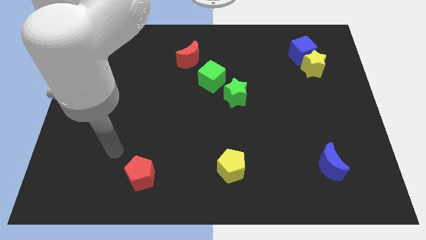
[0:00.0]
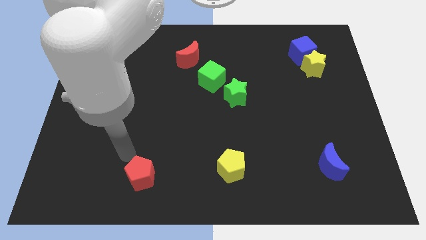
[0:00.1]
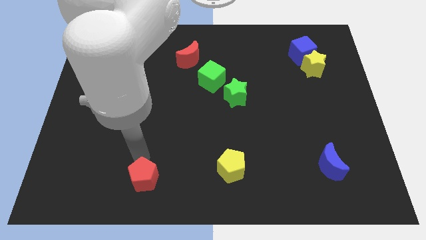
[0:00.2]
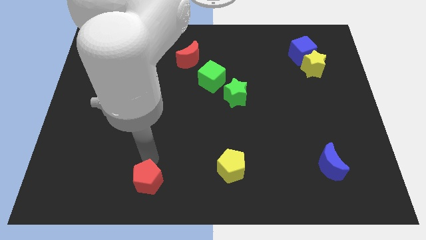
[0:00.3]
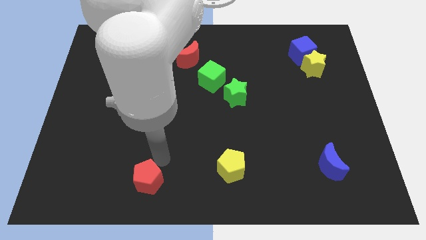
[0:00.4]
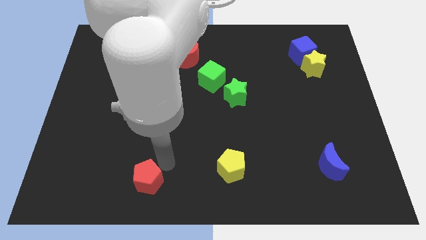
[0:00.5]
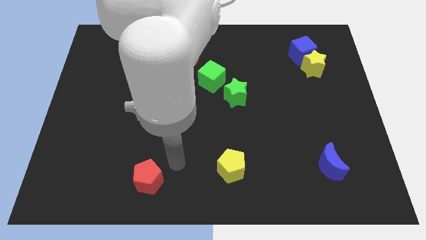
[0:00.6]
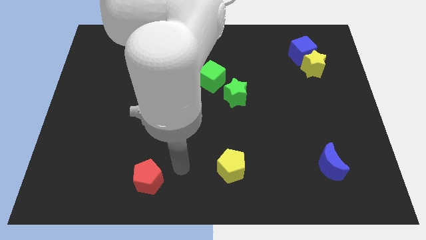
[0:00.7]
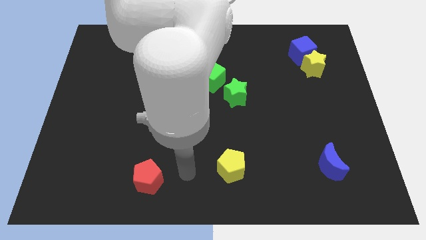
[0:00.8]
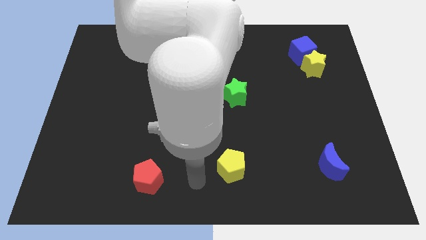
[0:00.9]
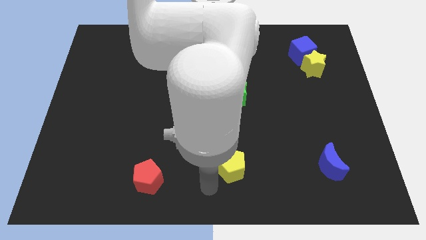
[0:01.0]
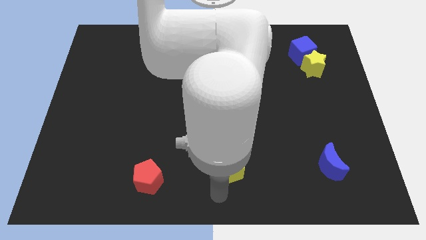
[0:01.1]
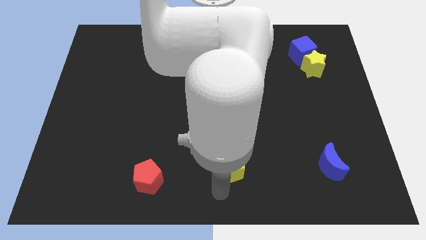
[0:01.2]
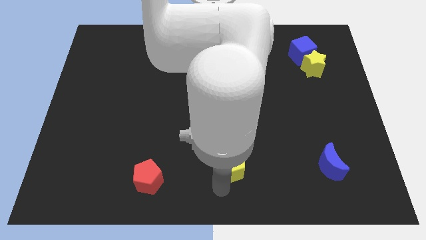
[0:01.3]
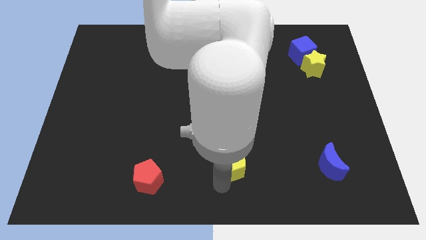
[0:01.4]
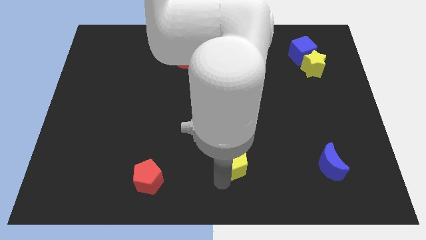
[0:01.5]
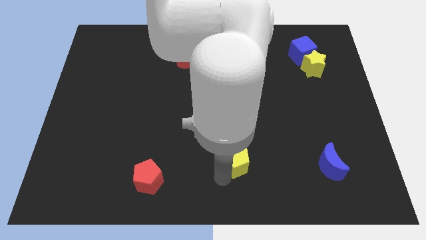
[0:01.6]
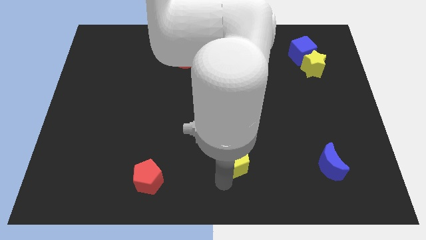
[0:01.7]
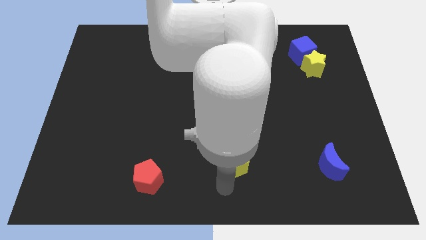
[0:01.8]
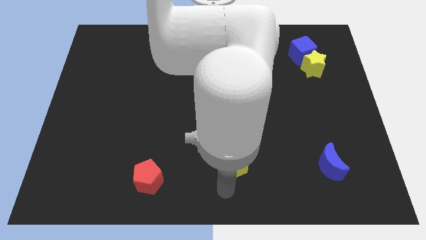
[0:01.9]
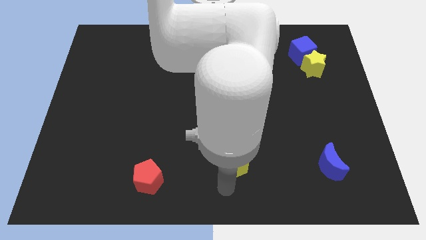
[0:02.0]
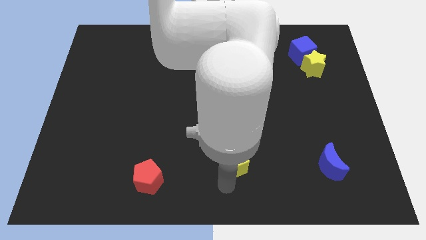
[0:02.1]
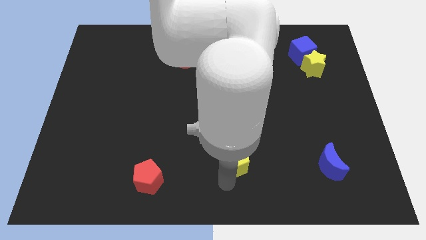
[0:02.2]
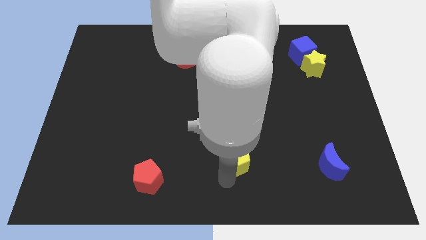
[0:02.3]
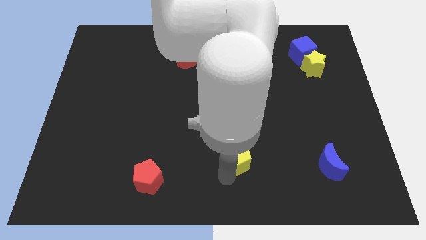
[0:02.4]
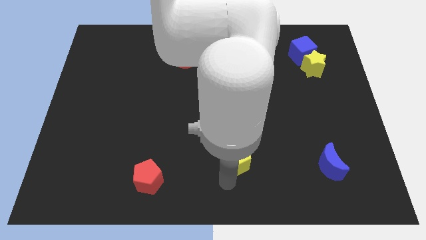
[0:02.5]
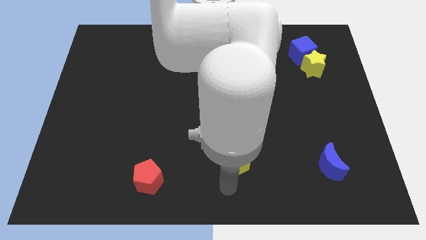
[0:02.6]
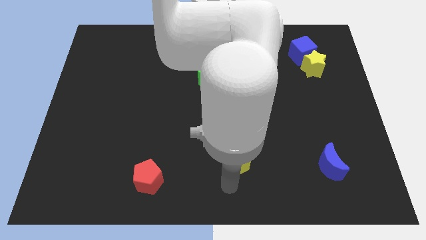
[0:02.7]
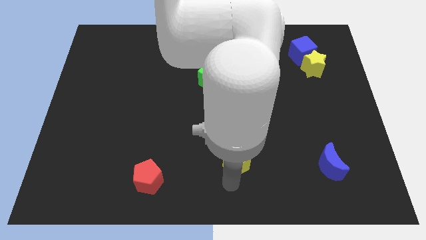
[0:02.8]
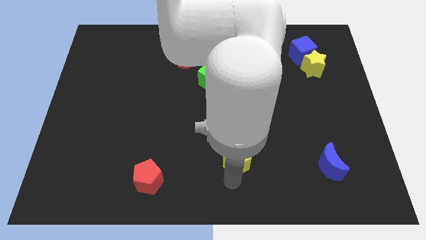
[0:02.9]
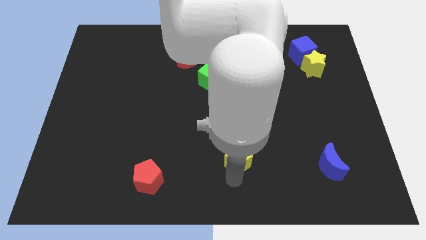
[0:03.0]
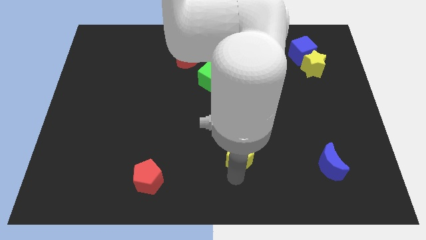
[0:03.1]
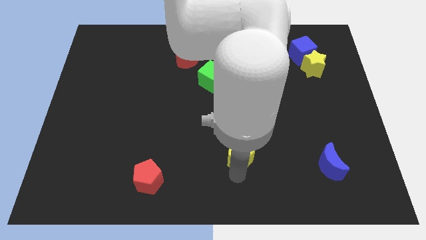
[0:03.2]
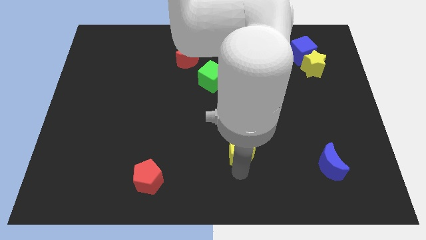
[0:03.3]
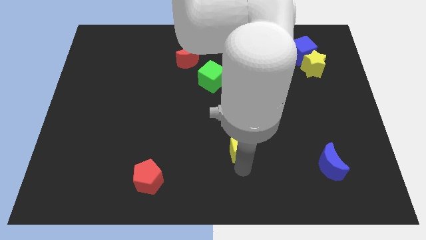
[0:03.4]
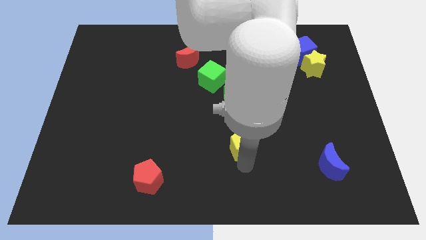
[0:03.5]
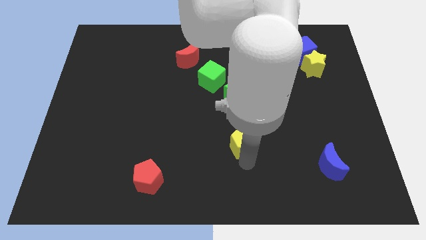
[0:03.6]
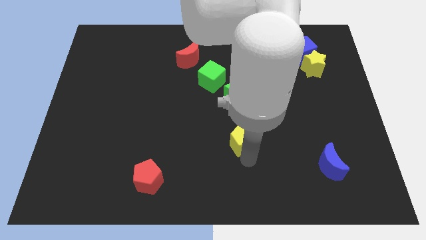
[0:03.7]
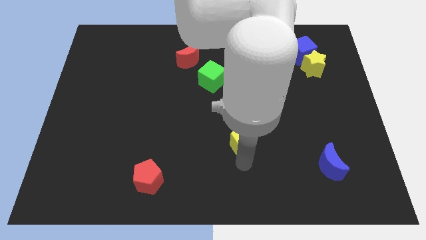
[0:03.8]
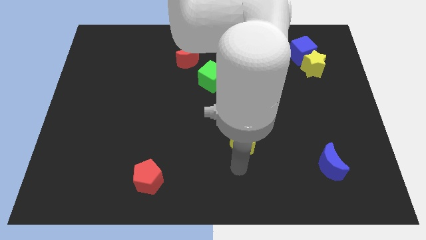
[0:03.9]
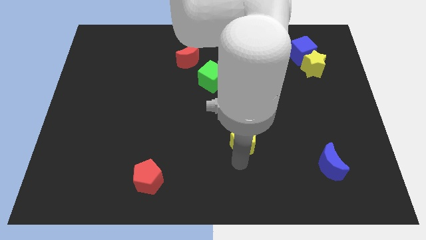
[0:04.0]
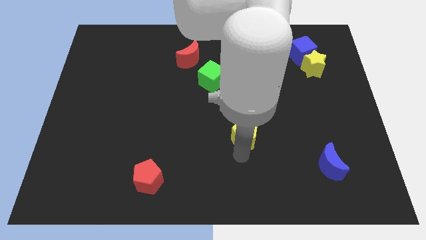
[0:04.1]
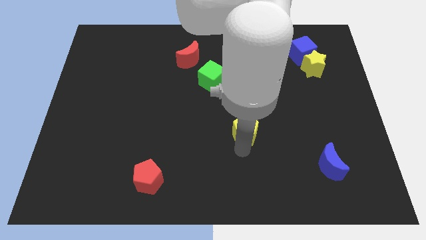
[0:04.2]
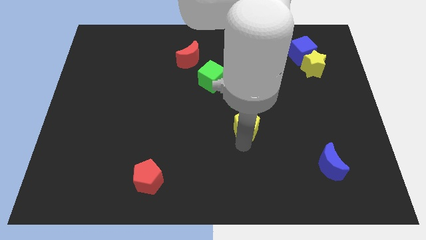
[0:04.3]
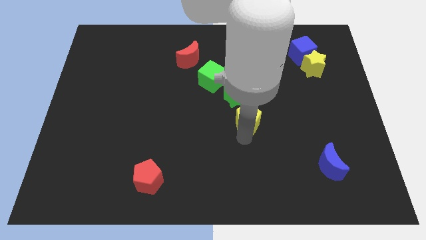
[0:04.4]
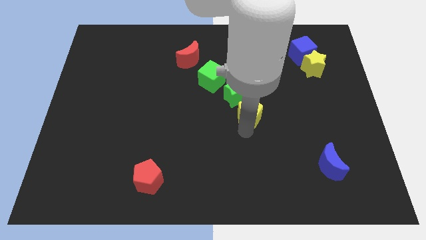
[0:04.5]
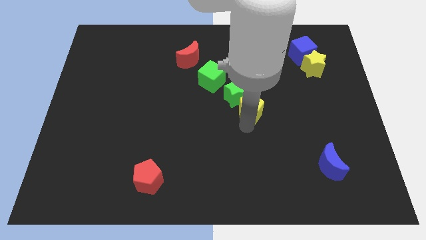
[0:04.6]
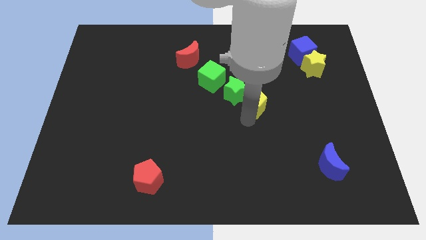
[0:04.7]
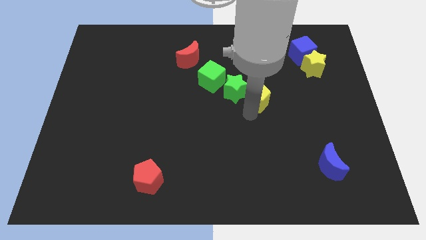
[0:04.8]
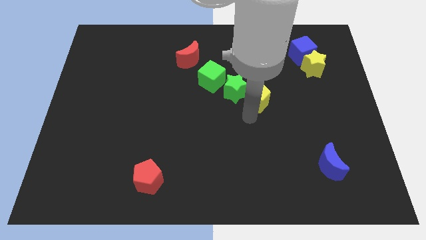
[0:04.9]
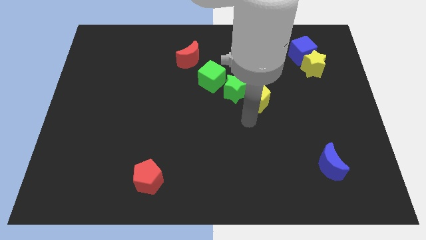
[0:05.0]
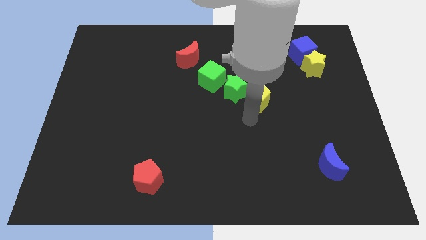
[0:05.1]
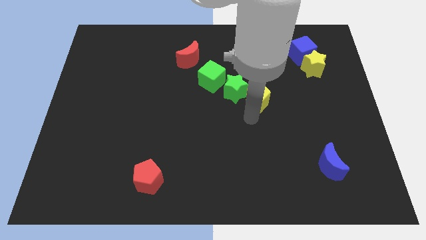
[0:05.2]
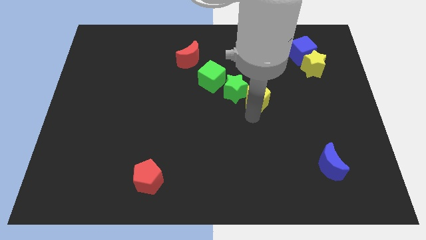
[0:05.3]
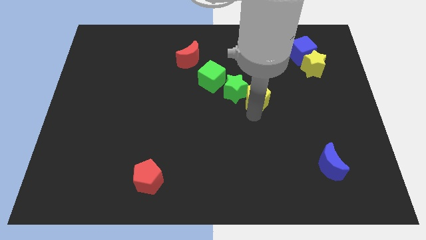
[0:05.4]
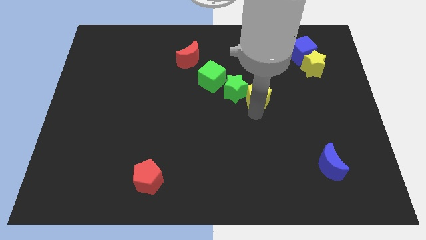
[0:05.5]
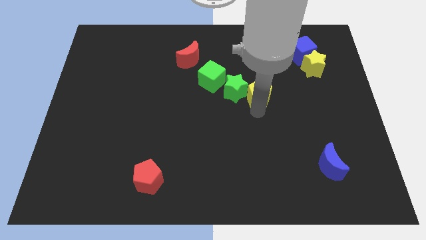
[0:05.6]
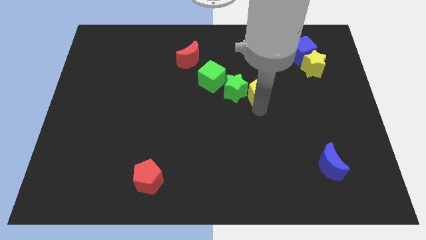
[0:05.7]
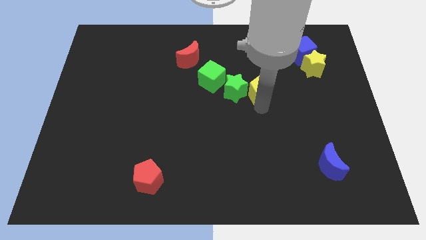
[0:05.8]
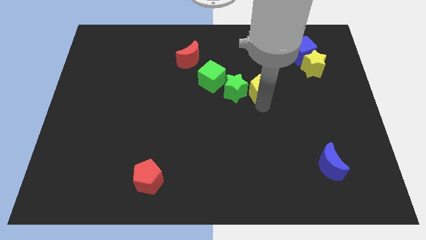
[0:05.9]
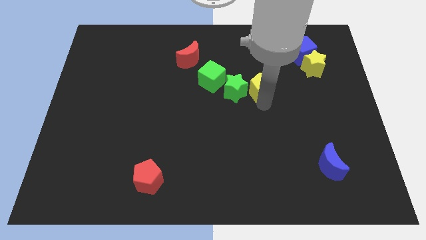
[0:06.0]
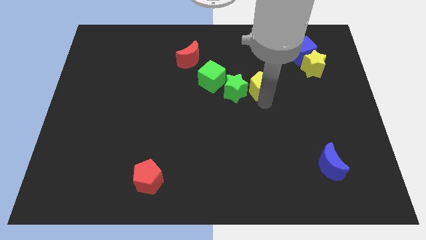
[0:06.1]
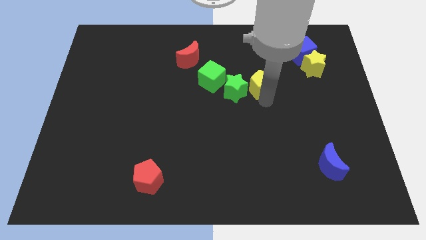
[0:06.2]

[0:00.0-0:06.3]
push the yellow pentagon up

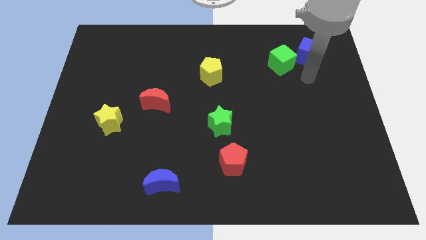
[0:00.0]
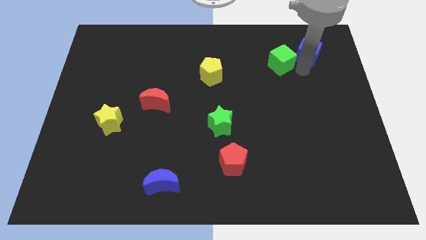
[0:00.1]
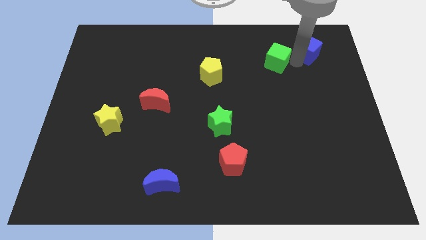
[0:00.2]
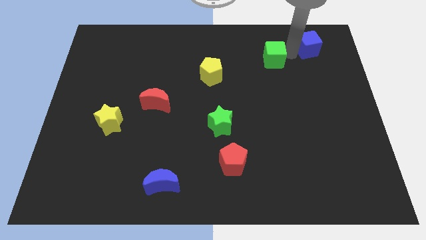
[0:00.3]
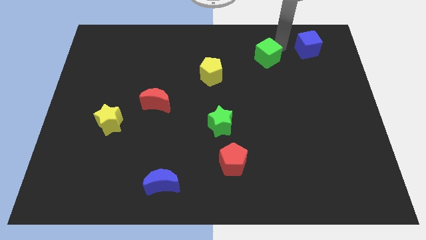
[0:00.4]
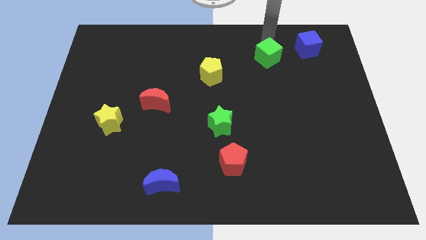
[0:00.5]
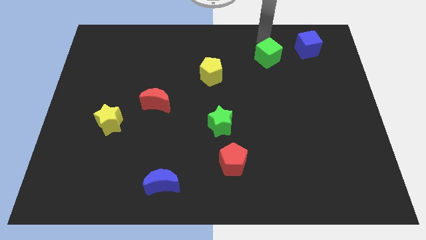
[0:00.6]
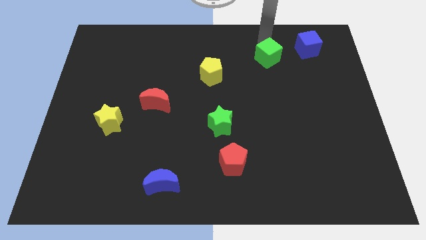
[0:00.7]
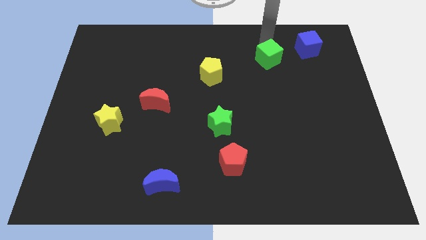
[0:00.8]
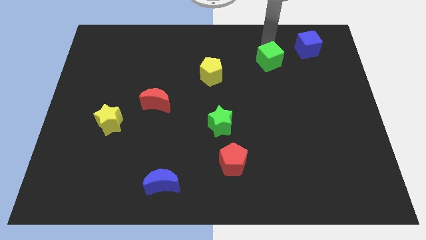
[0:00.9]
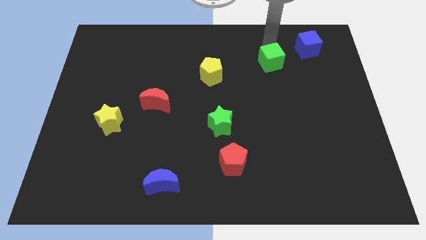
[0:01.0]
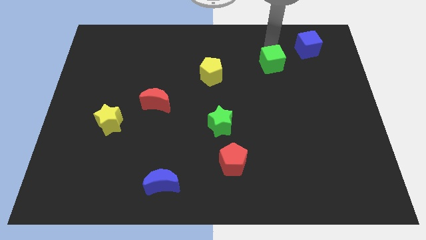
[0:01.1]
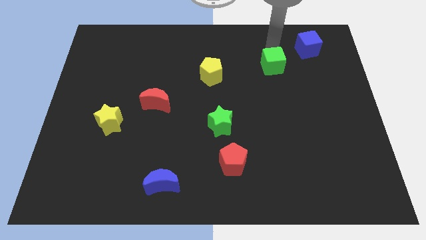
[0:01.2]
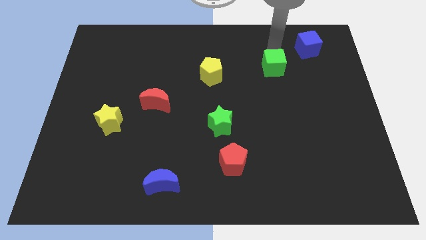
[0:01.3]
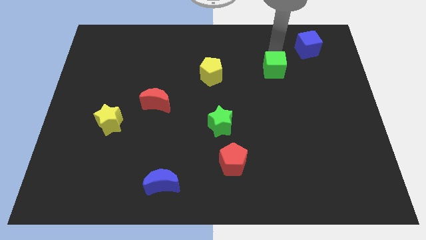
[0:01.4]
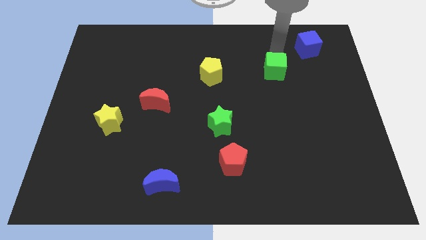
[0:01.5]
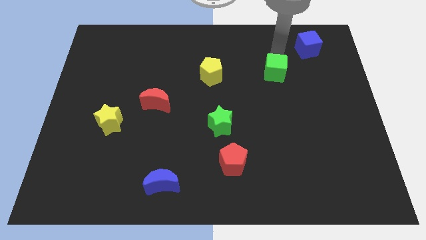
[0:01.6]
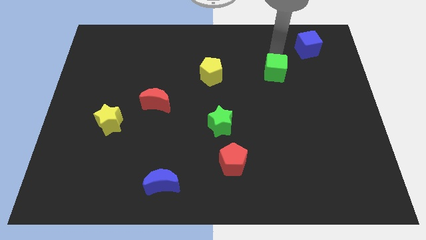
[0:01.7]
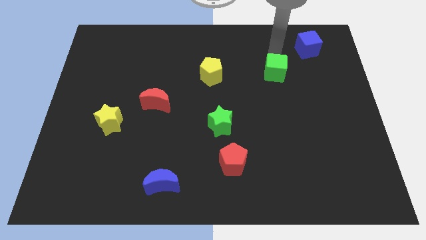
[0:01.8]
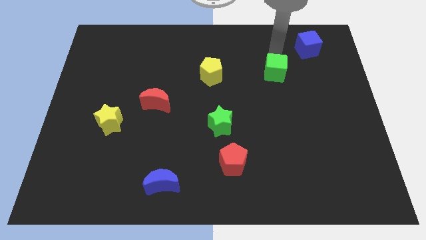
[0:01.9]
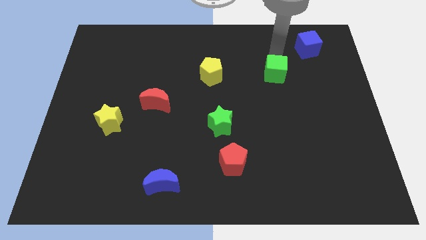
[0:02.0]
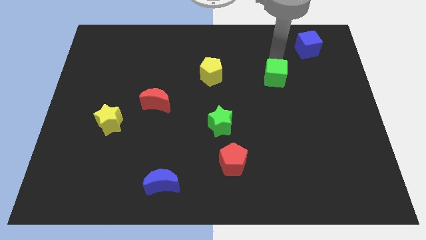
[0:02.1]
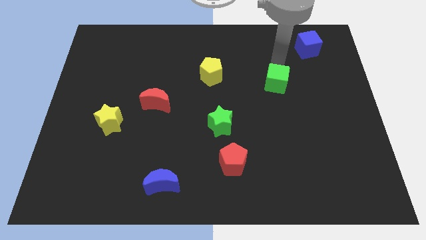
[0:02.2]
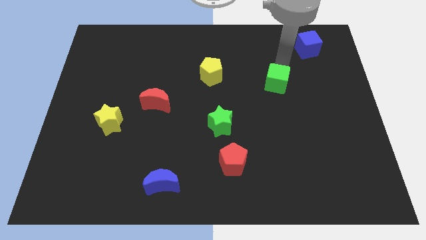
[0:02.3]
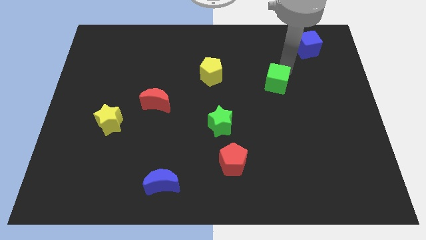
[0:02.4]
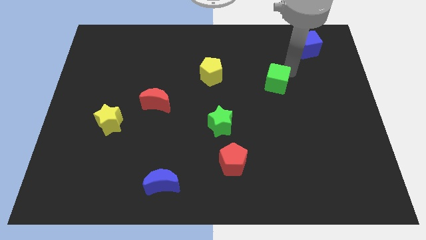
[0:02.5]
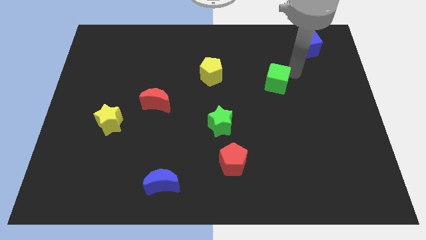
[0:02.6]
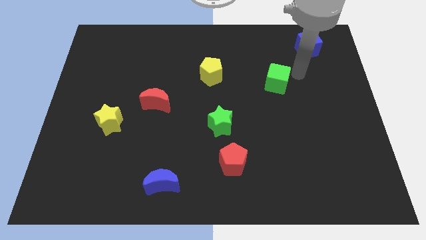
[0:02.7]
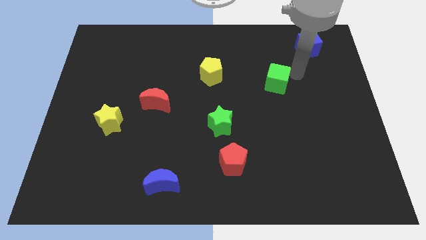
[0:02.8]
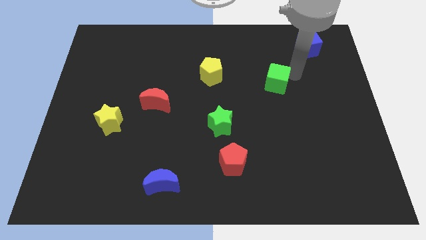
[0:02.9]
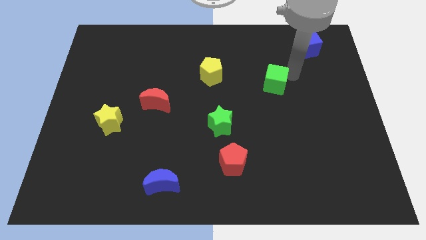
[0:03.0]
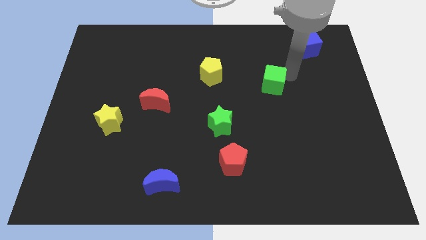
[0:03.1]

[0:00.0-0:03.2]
push the green cube somewhat downwards and to the left diagonally
